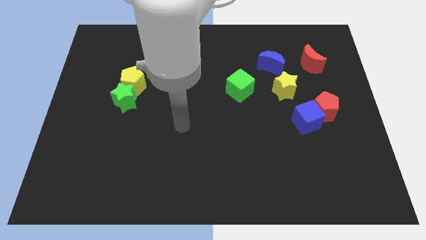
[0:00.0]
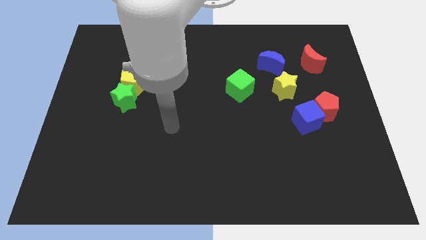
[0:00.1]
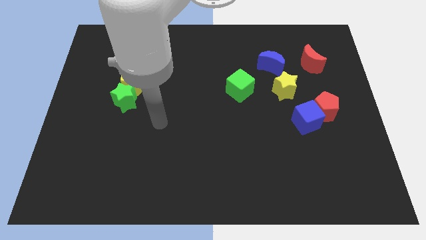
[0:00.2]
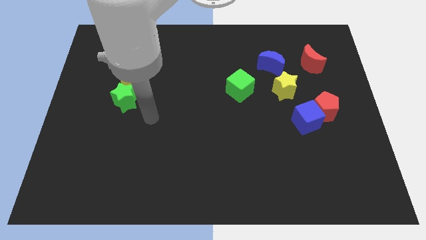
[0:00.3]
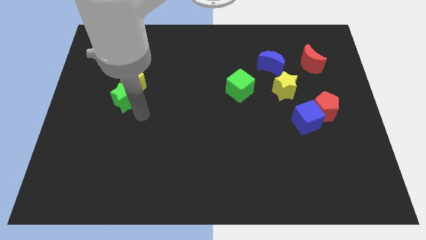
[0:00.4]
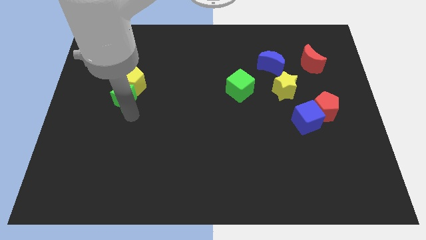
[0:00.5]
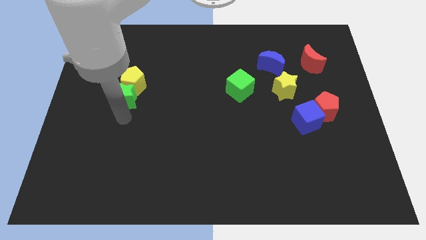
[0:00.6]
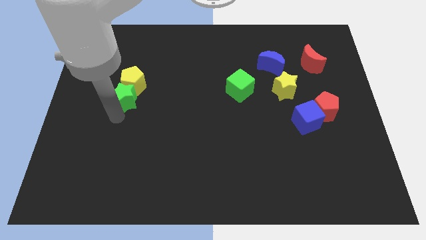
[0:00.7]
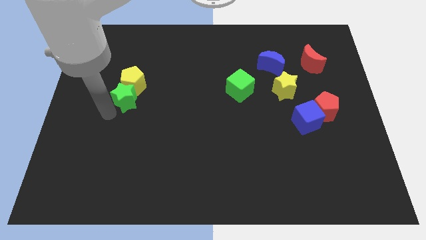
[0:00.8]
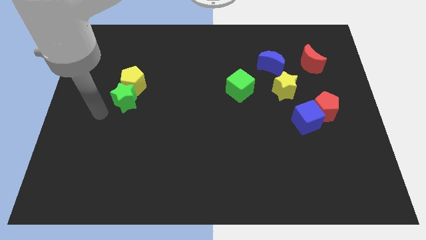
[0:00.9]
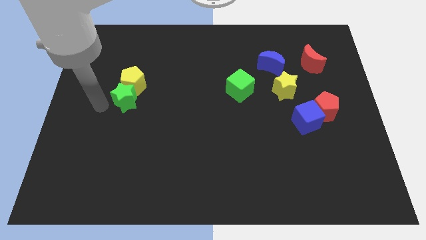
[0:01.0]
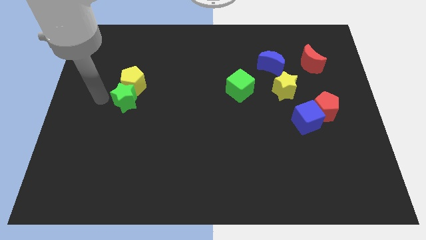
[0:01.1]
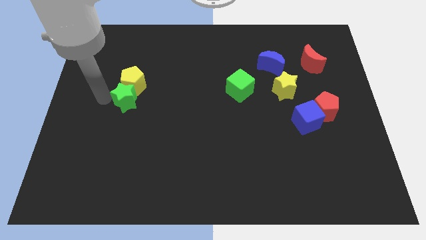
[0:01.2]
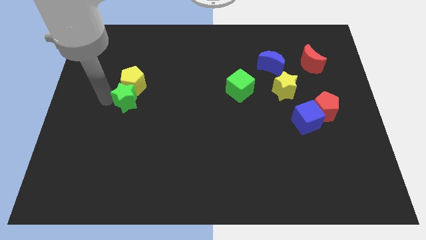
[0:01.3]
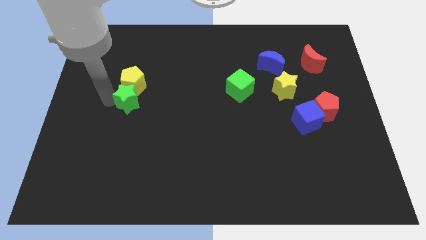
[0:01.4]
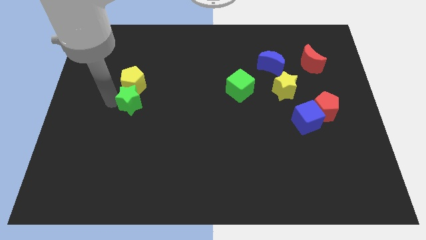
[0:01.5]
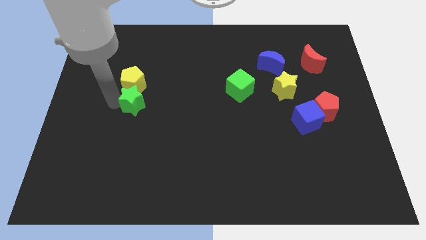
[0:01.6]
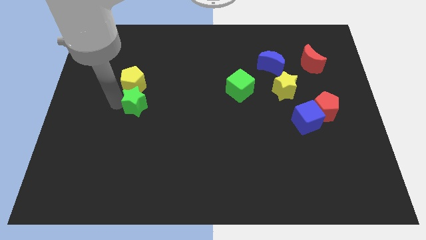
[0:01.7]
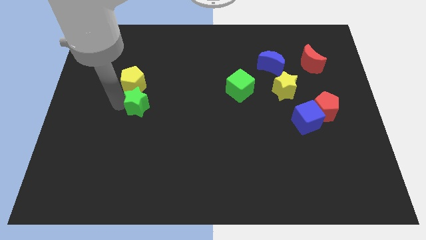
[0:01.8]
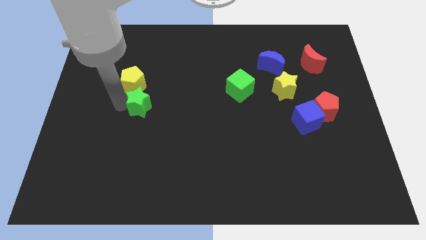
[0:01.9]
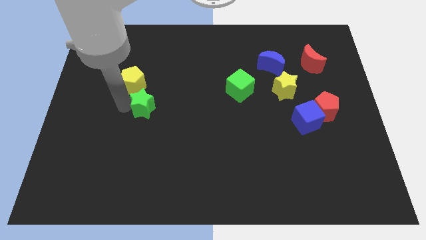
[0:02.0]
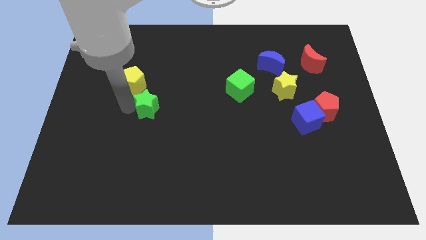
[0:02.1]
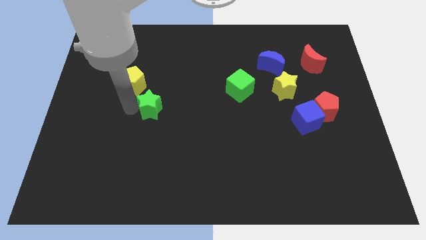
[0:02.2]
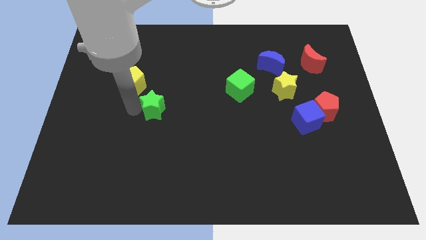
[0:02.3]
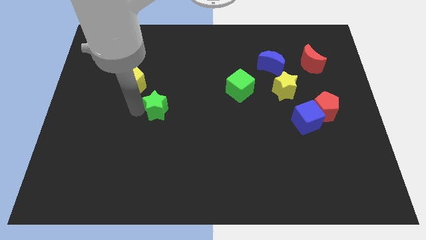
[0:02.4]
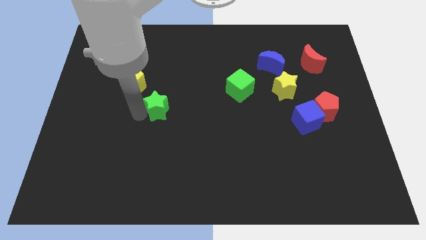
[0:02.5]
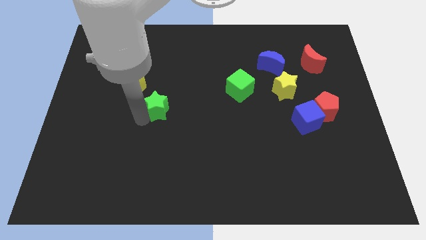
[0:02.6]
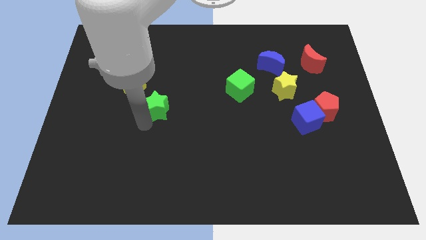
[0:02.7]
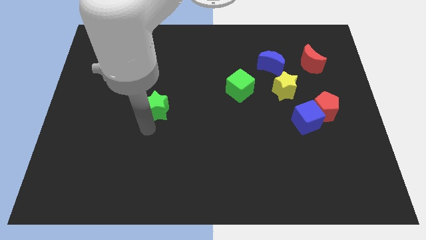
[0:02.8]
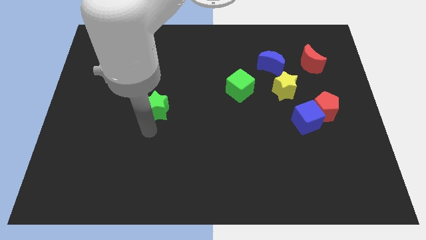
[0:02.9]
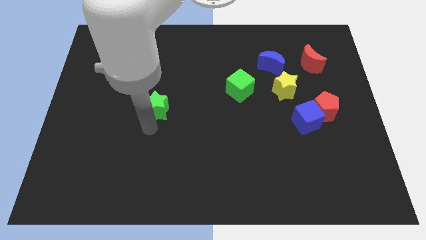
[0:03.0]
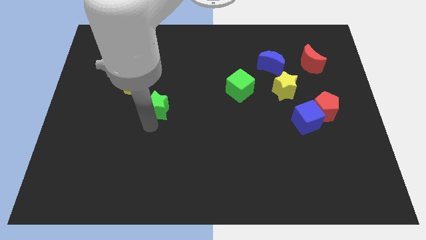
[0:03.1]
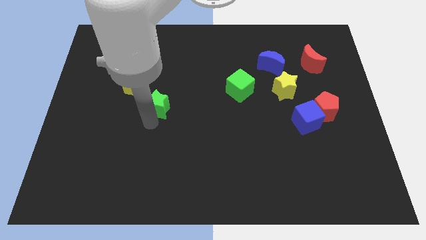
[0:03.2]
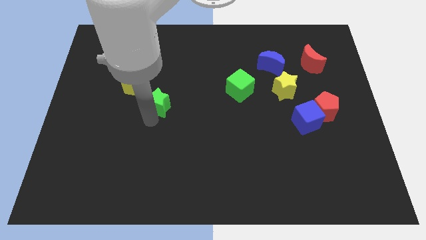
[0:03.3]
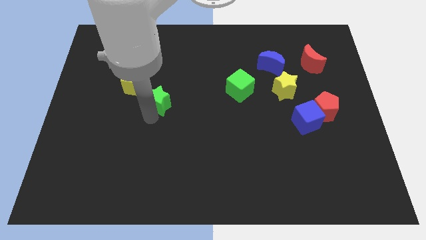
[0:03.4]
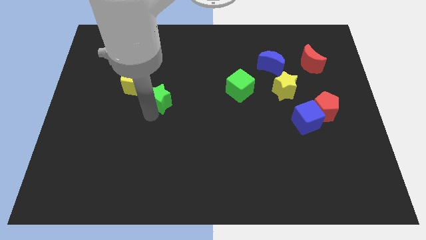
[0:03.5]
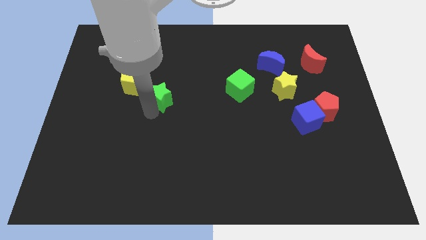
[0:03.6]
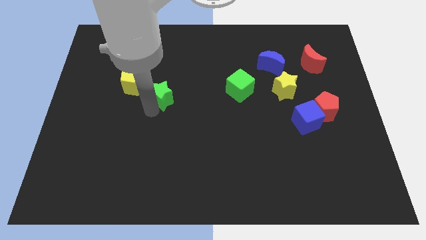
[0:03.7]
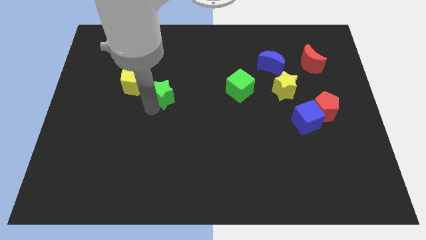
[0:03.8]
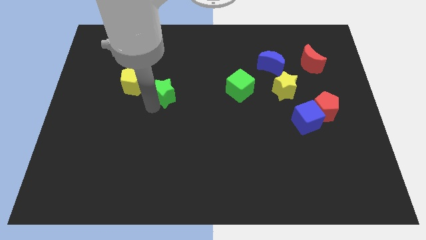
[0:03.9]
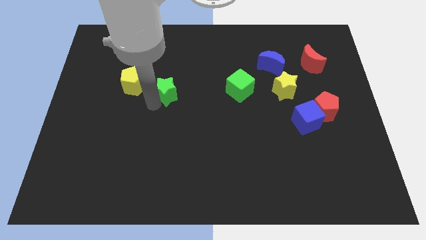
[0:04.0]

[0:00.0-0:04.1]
slide the green star up and to the right slightly

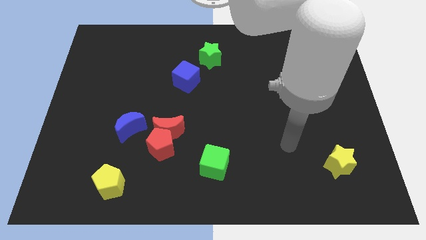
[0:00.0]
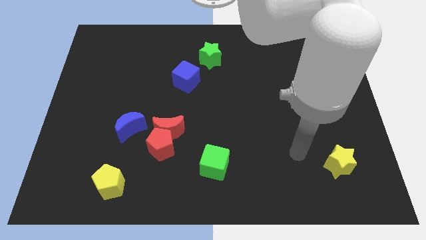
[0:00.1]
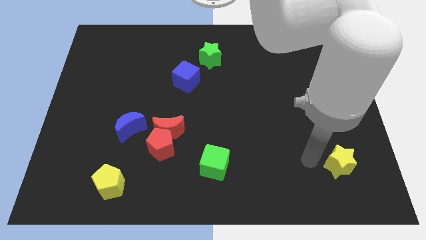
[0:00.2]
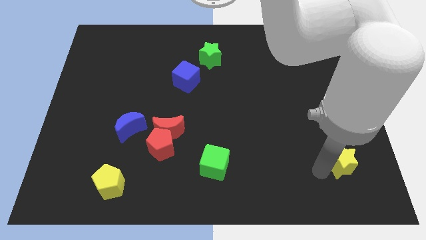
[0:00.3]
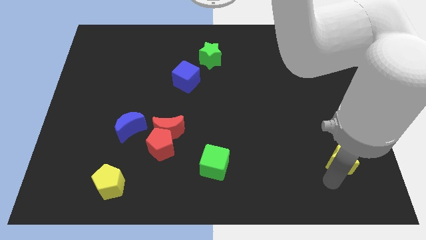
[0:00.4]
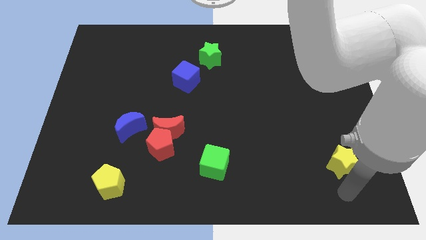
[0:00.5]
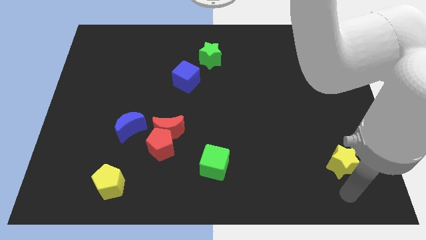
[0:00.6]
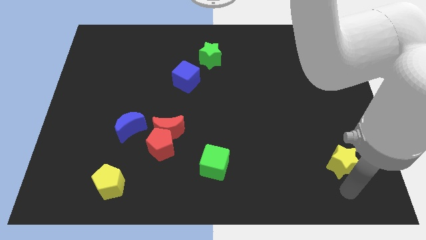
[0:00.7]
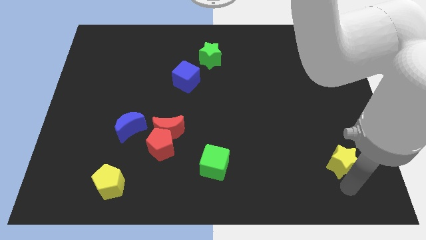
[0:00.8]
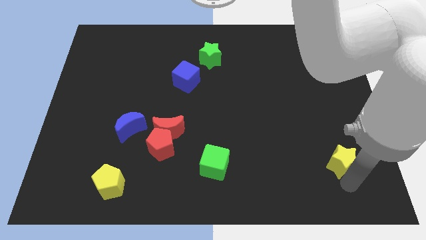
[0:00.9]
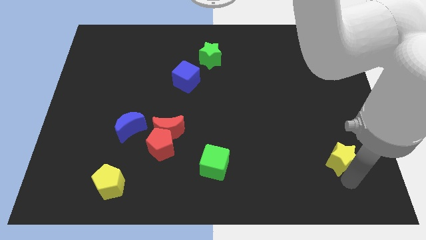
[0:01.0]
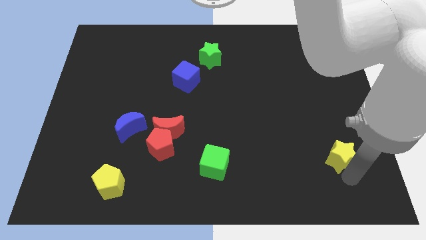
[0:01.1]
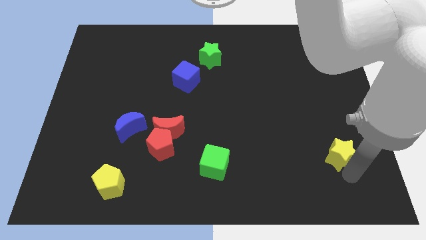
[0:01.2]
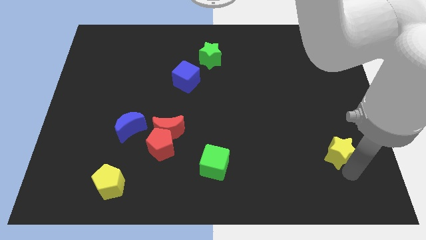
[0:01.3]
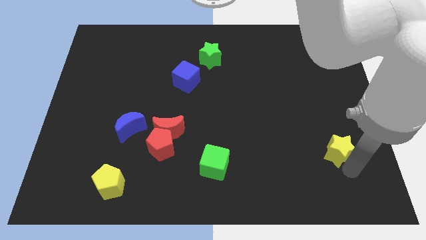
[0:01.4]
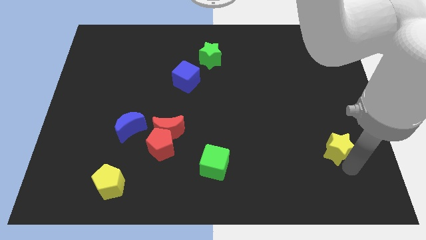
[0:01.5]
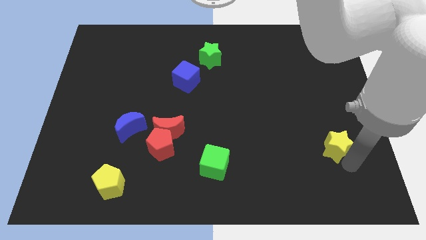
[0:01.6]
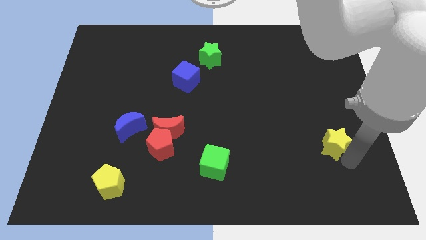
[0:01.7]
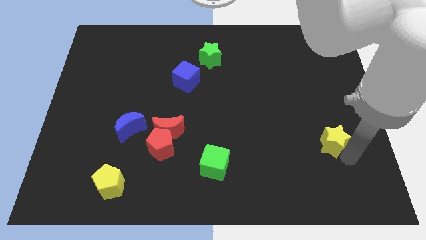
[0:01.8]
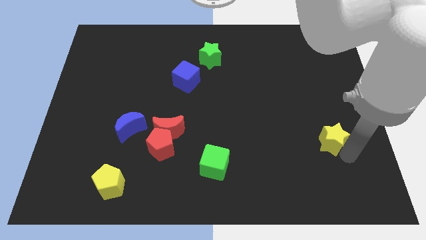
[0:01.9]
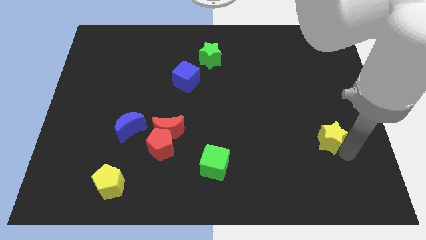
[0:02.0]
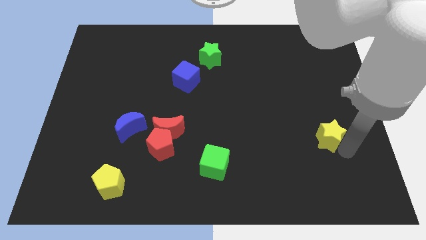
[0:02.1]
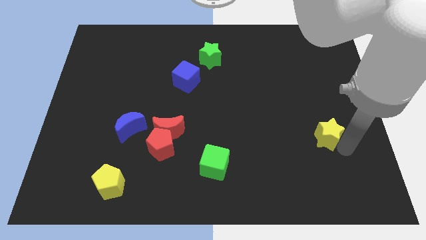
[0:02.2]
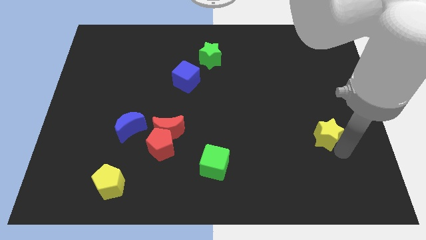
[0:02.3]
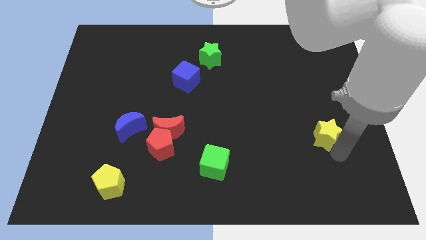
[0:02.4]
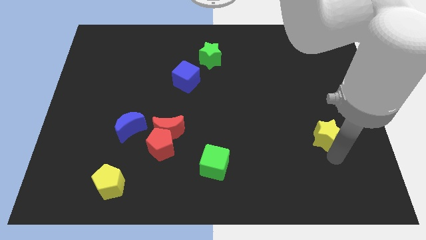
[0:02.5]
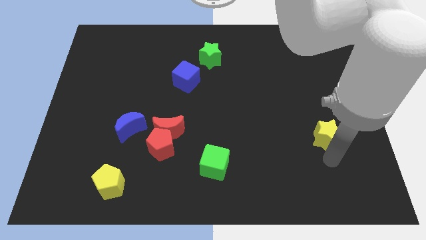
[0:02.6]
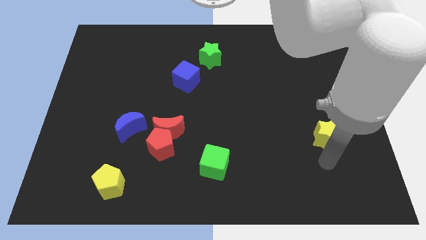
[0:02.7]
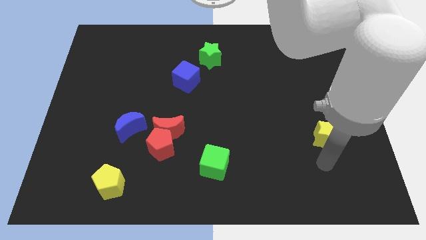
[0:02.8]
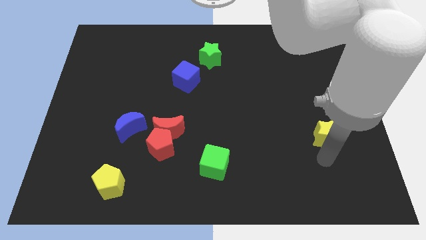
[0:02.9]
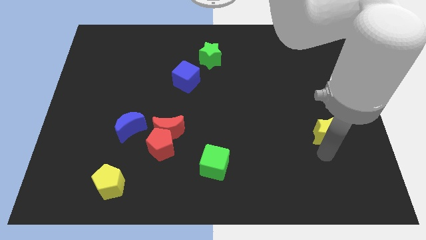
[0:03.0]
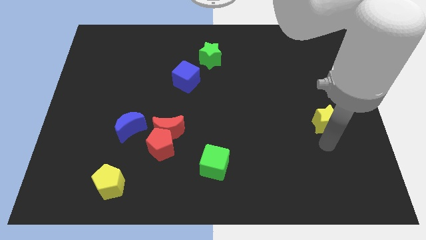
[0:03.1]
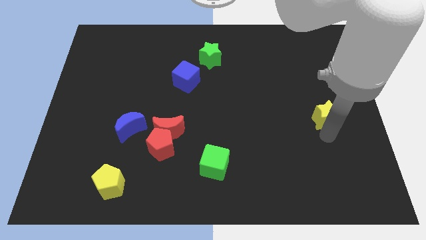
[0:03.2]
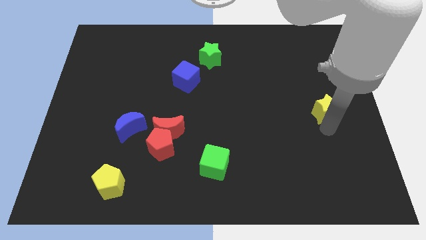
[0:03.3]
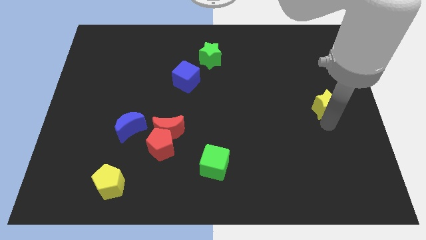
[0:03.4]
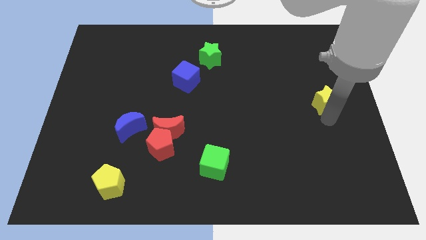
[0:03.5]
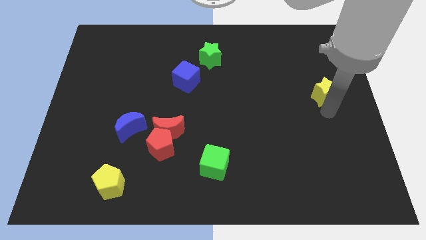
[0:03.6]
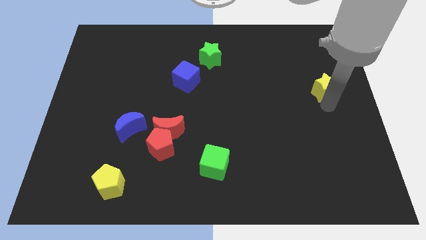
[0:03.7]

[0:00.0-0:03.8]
push the yellow star upwards

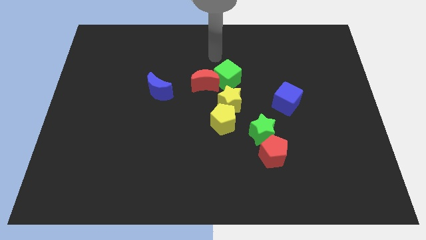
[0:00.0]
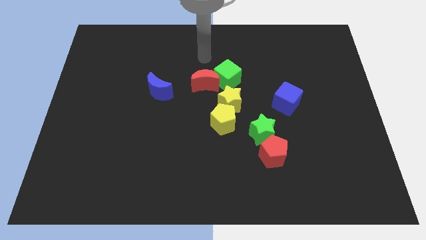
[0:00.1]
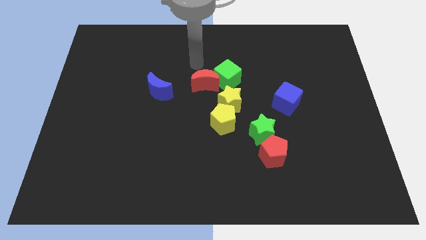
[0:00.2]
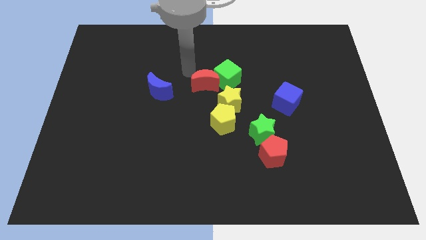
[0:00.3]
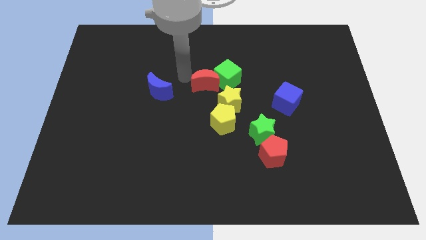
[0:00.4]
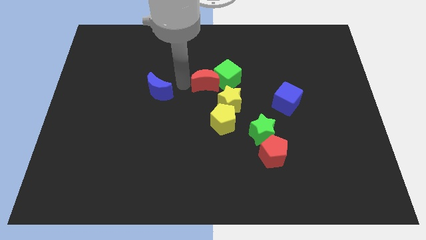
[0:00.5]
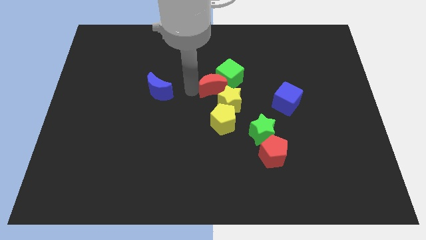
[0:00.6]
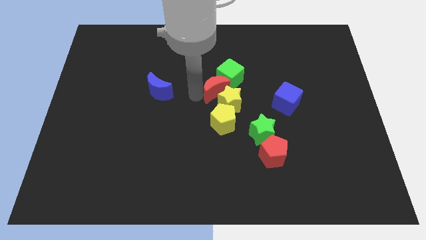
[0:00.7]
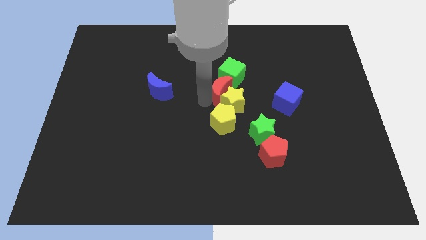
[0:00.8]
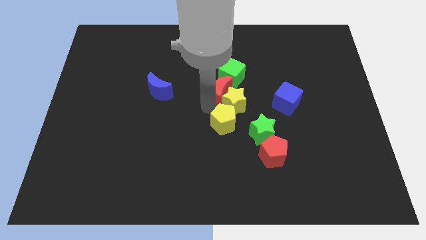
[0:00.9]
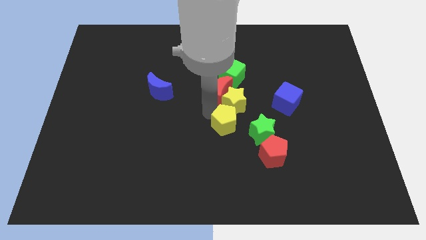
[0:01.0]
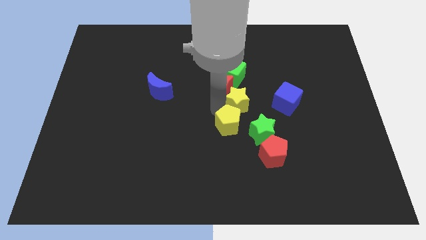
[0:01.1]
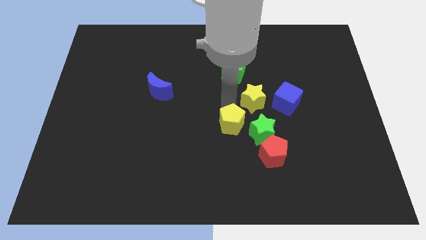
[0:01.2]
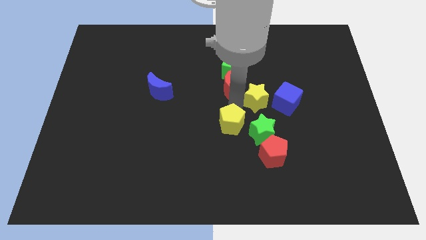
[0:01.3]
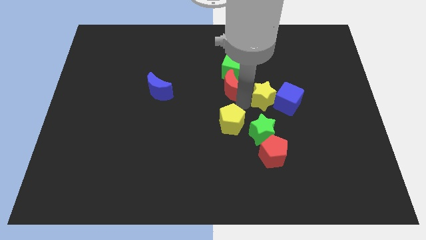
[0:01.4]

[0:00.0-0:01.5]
slightly slide the yellow star to the right
